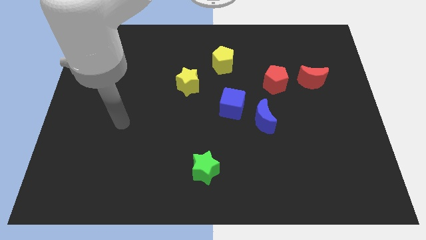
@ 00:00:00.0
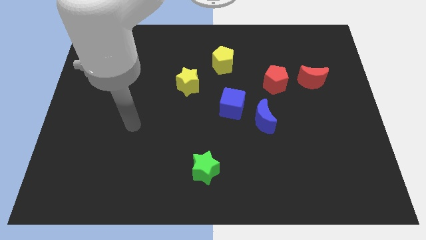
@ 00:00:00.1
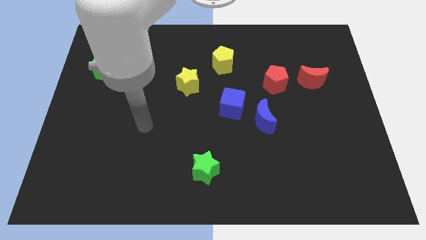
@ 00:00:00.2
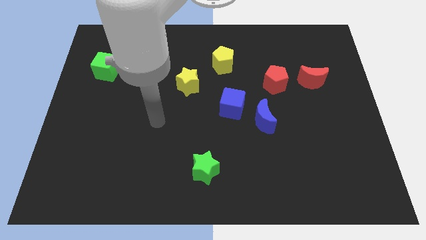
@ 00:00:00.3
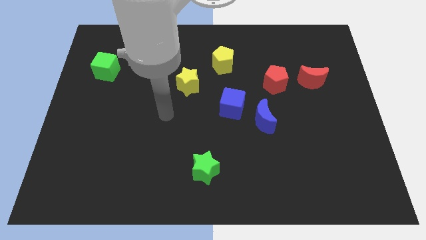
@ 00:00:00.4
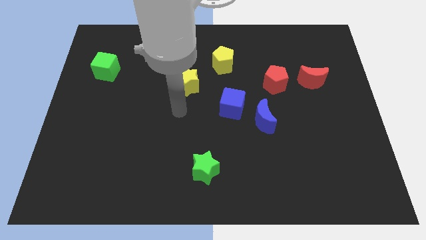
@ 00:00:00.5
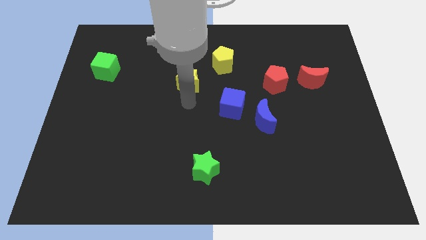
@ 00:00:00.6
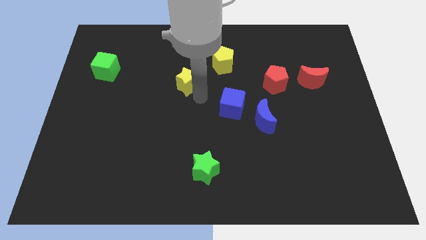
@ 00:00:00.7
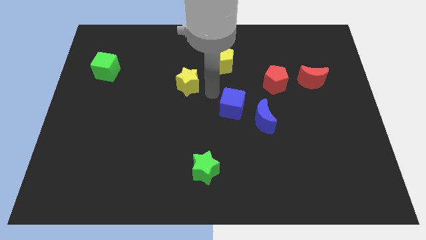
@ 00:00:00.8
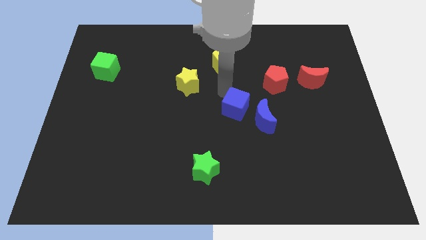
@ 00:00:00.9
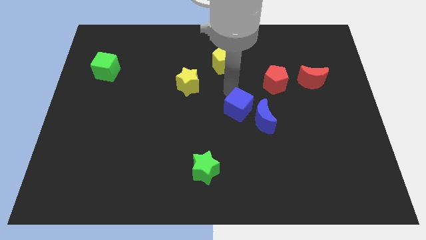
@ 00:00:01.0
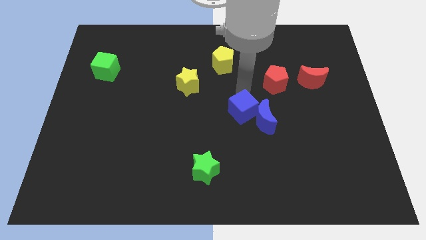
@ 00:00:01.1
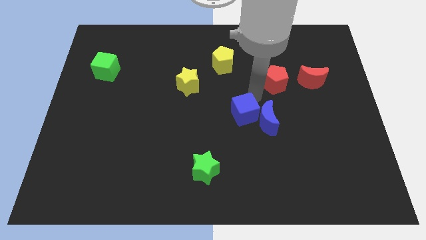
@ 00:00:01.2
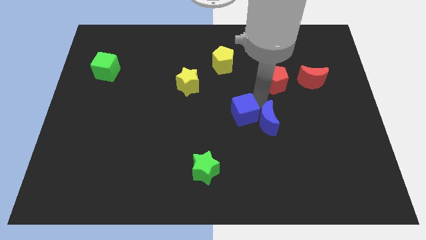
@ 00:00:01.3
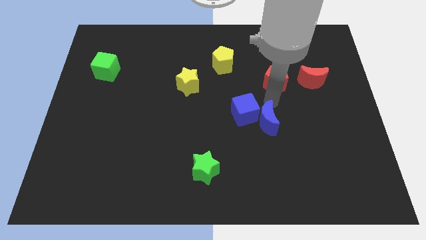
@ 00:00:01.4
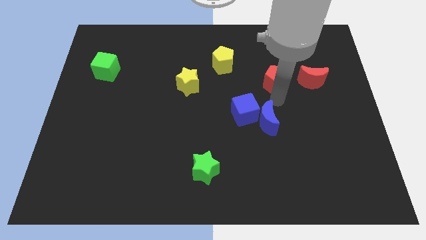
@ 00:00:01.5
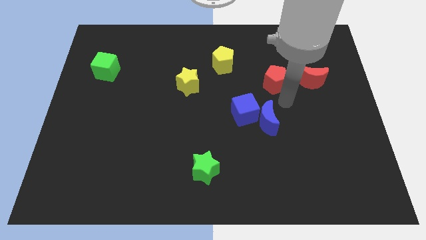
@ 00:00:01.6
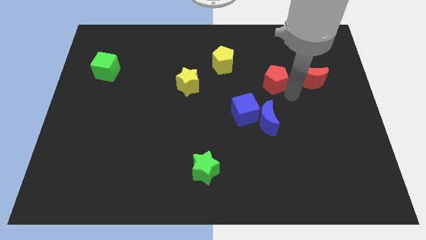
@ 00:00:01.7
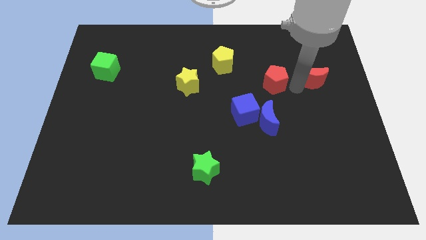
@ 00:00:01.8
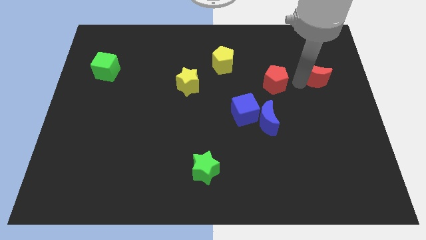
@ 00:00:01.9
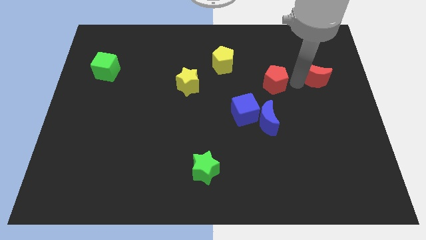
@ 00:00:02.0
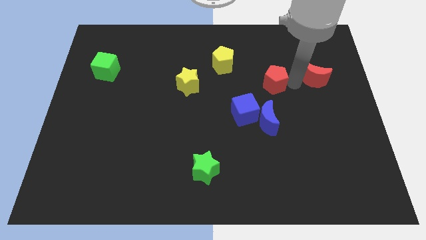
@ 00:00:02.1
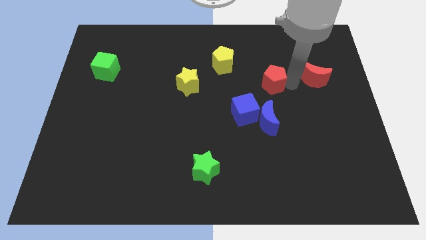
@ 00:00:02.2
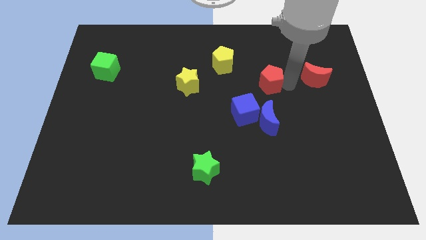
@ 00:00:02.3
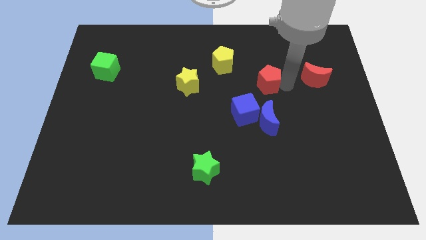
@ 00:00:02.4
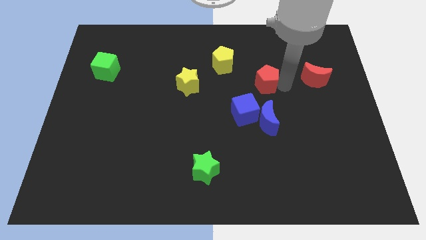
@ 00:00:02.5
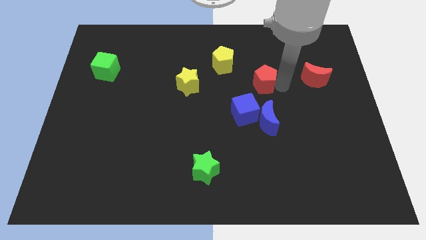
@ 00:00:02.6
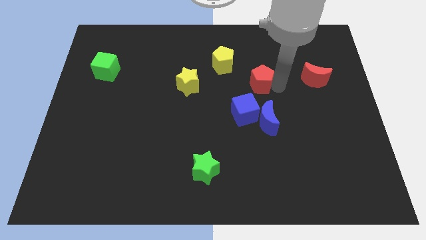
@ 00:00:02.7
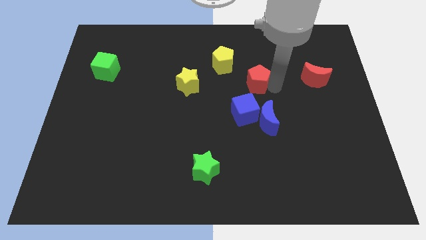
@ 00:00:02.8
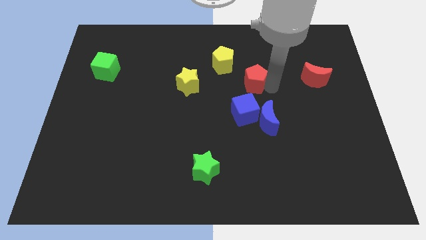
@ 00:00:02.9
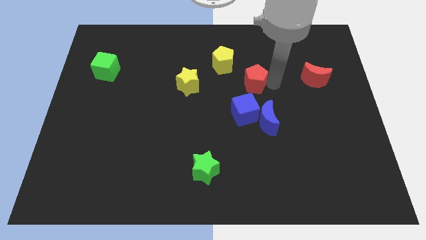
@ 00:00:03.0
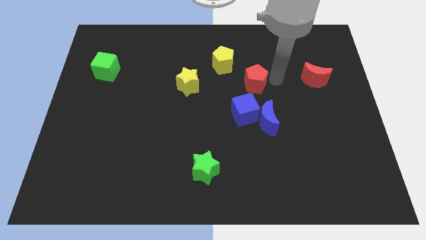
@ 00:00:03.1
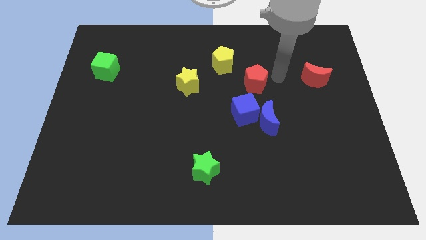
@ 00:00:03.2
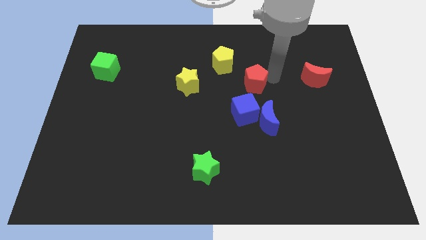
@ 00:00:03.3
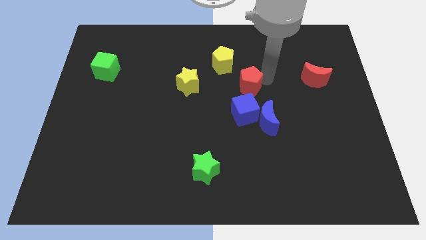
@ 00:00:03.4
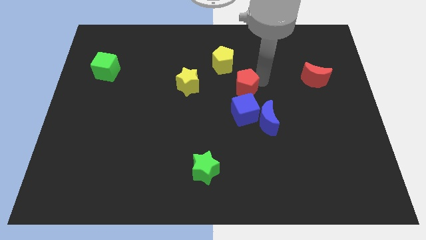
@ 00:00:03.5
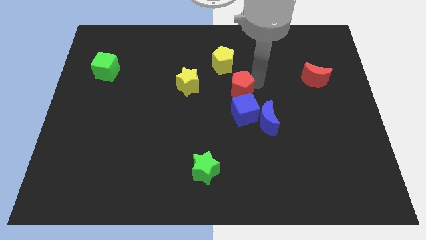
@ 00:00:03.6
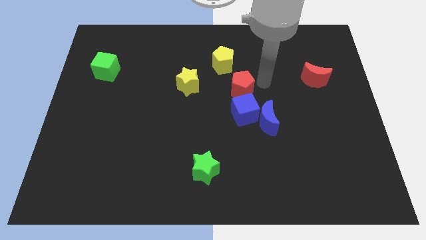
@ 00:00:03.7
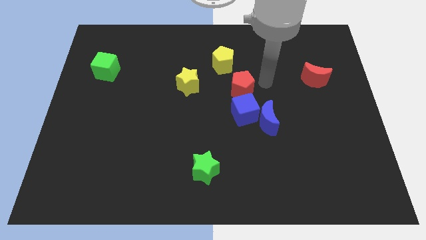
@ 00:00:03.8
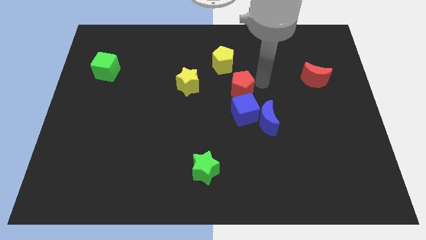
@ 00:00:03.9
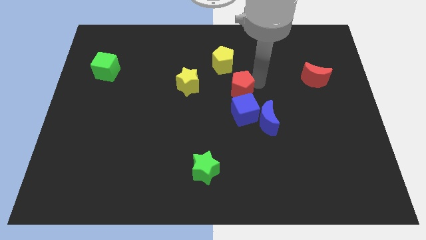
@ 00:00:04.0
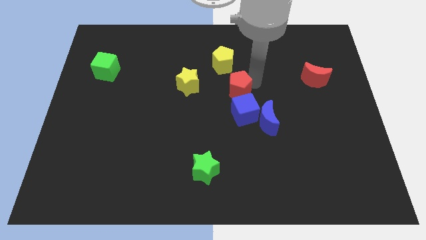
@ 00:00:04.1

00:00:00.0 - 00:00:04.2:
push the red pentagon a little bit down and then left

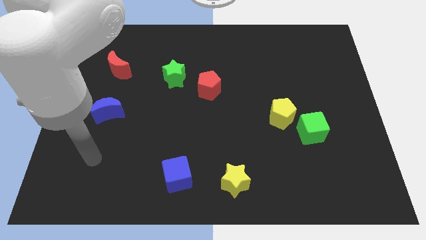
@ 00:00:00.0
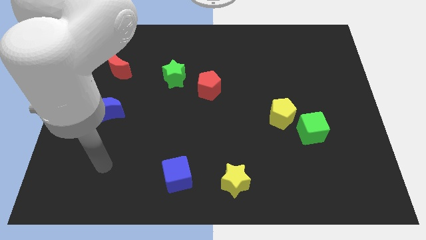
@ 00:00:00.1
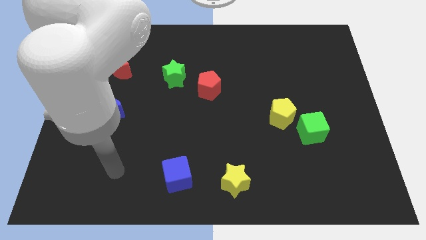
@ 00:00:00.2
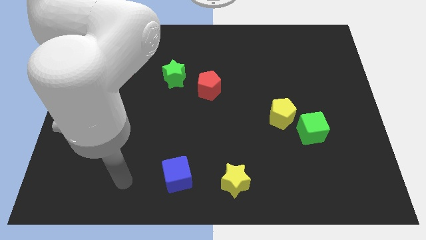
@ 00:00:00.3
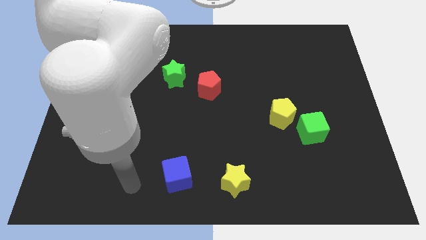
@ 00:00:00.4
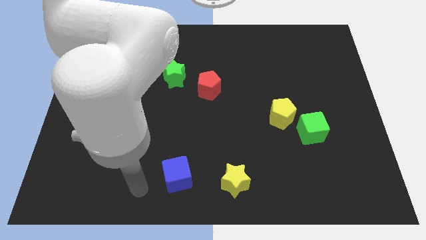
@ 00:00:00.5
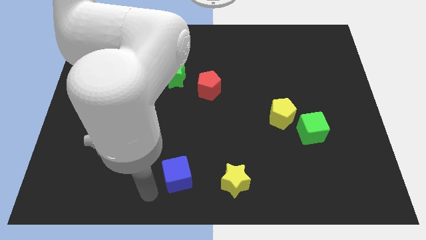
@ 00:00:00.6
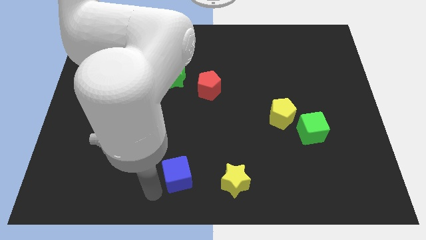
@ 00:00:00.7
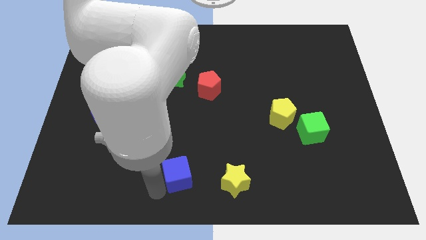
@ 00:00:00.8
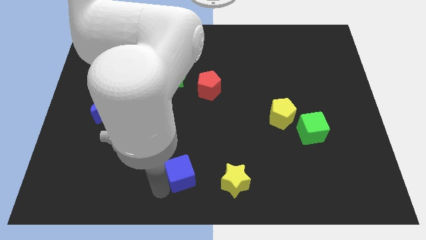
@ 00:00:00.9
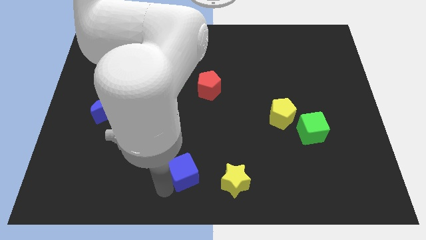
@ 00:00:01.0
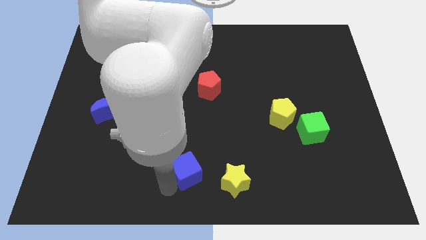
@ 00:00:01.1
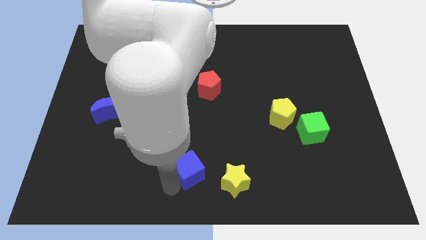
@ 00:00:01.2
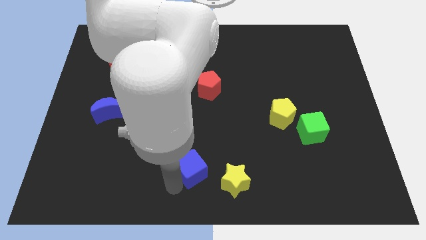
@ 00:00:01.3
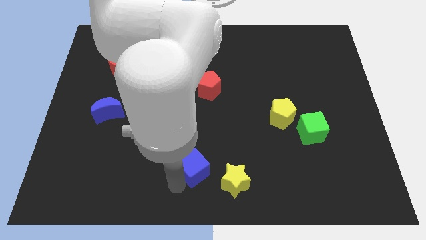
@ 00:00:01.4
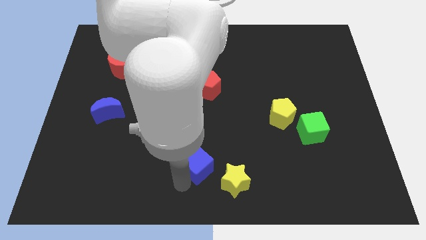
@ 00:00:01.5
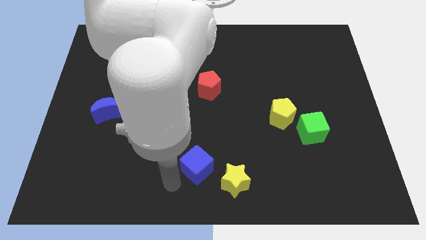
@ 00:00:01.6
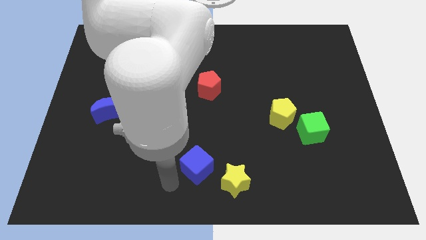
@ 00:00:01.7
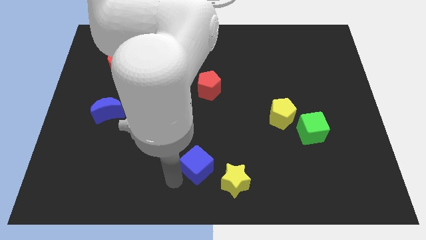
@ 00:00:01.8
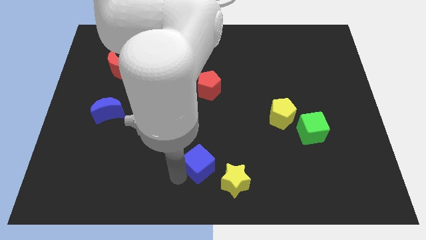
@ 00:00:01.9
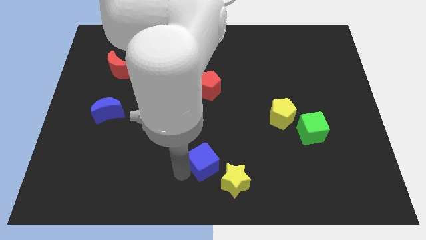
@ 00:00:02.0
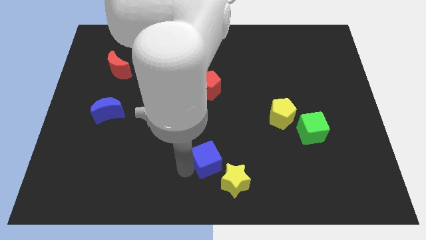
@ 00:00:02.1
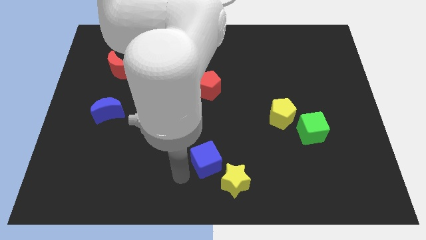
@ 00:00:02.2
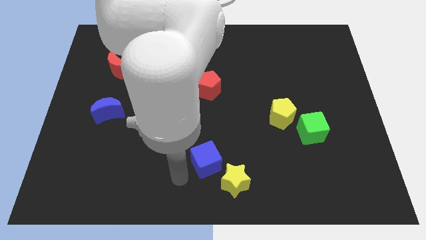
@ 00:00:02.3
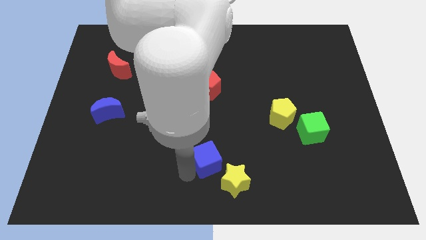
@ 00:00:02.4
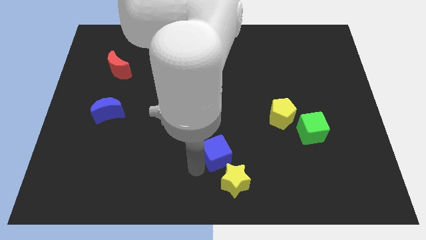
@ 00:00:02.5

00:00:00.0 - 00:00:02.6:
slightly move the blue cube diagonally upwards and right

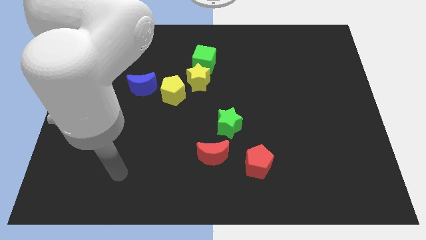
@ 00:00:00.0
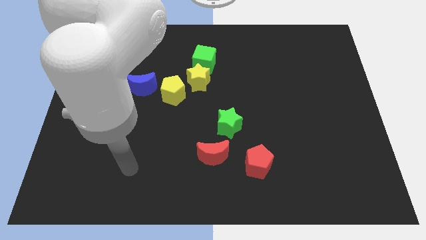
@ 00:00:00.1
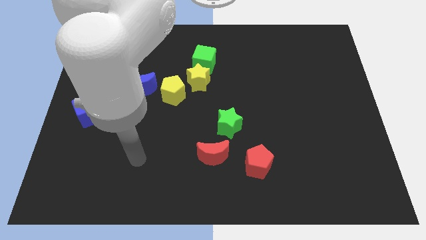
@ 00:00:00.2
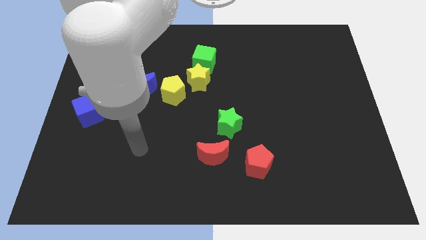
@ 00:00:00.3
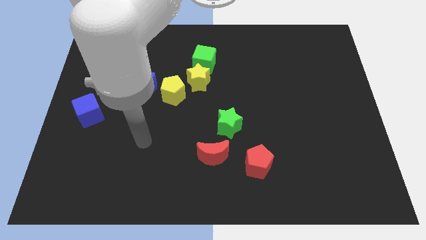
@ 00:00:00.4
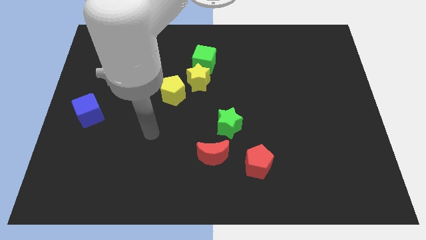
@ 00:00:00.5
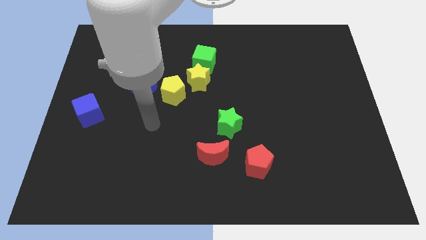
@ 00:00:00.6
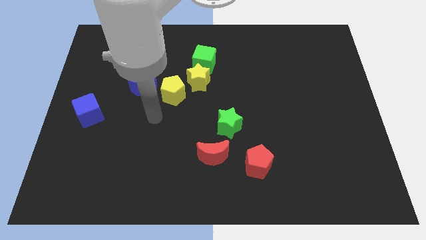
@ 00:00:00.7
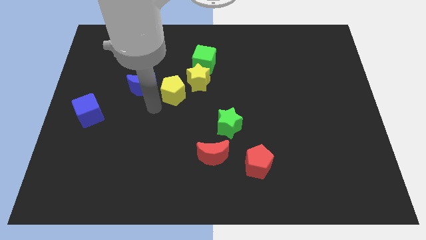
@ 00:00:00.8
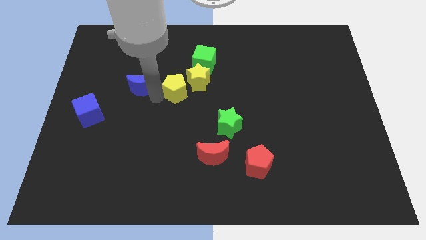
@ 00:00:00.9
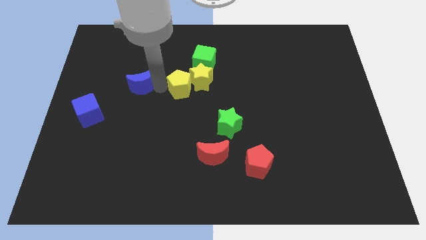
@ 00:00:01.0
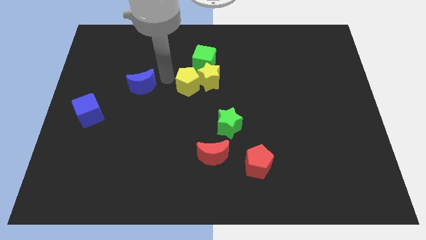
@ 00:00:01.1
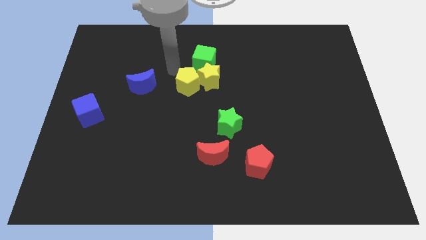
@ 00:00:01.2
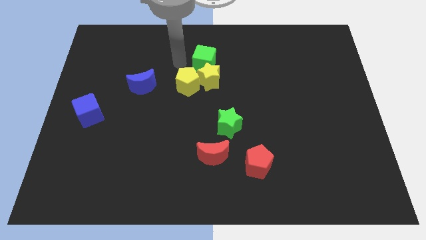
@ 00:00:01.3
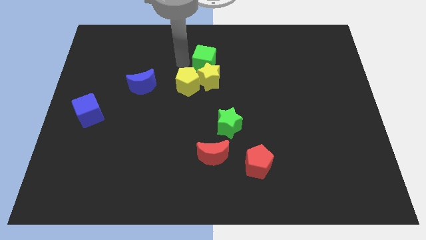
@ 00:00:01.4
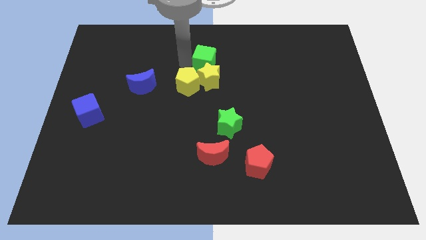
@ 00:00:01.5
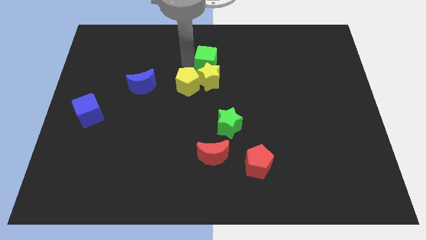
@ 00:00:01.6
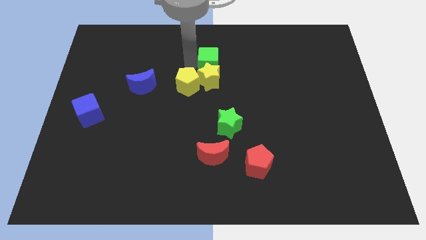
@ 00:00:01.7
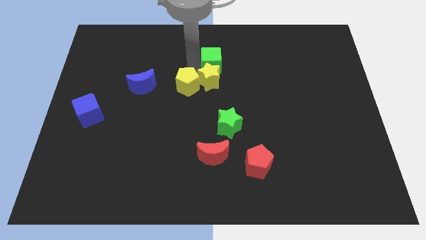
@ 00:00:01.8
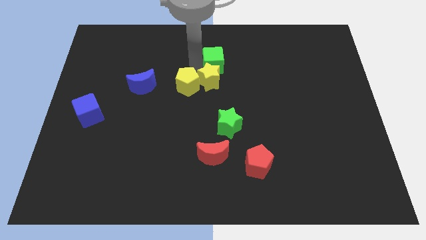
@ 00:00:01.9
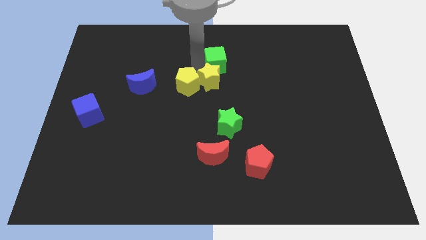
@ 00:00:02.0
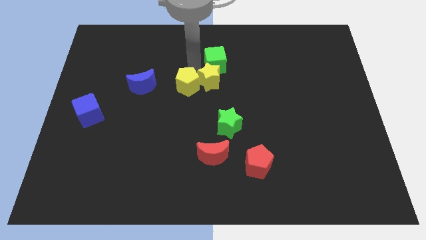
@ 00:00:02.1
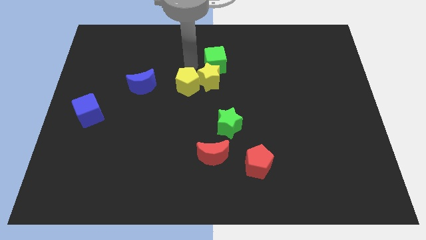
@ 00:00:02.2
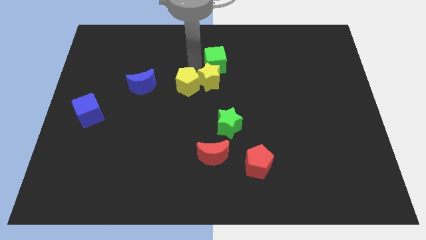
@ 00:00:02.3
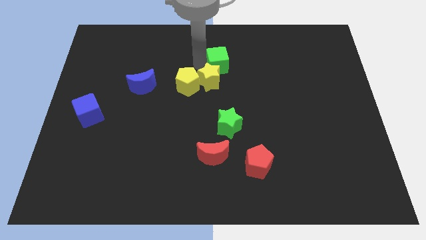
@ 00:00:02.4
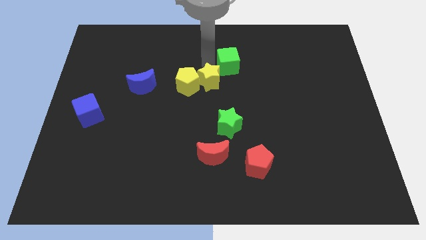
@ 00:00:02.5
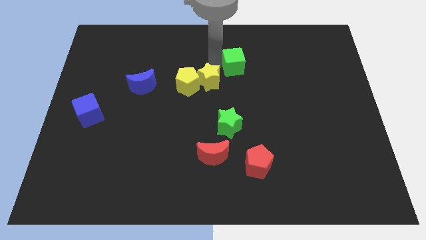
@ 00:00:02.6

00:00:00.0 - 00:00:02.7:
push the green cube to the right somewhat
